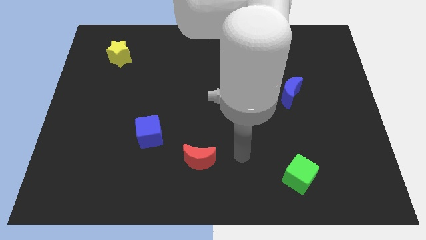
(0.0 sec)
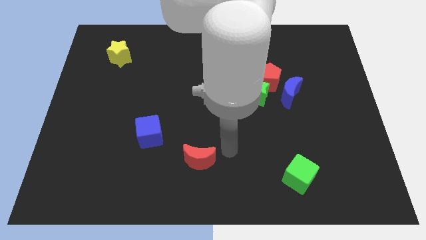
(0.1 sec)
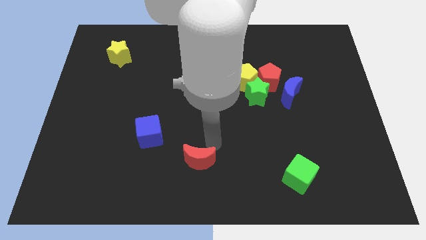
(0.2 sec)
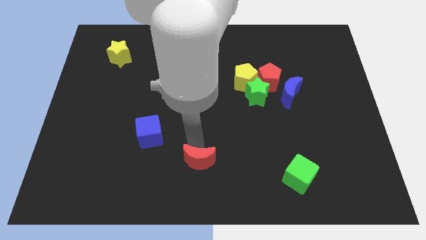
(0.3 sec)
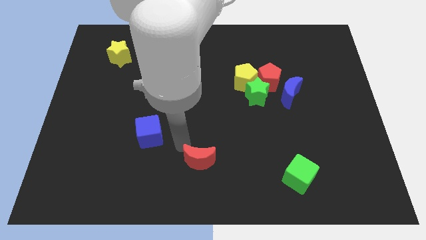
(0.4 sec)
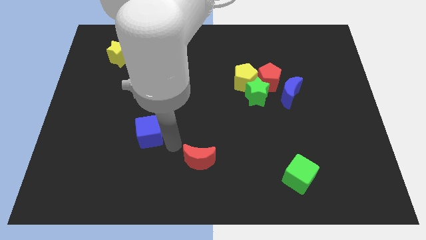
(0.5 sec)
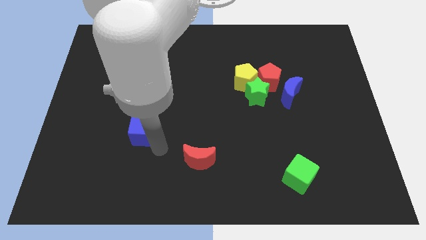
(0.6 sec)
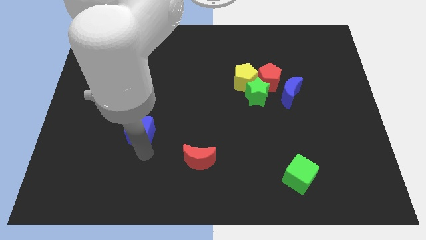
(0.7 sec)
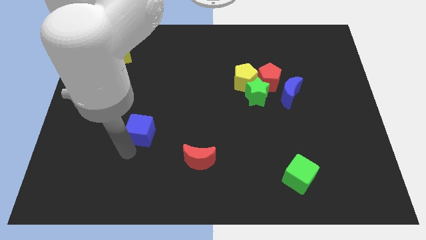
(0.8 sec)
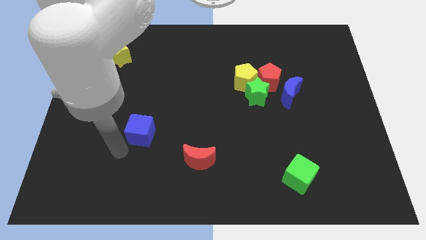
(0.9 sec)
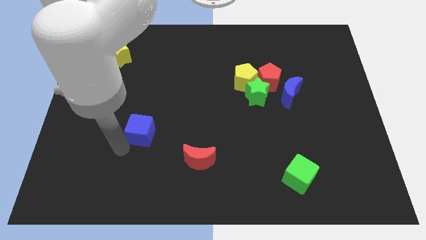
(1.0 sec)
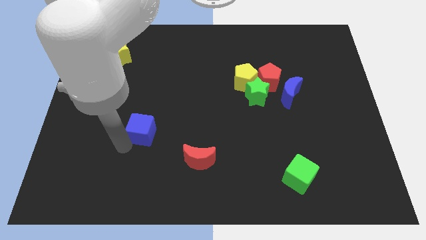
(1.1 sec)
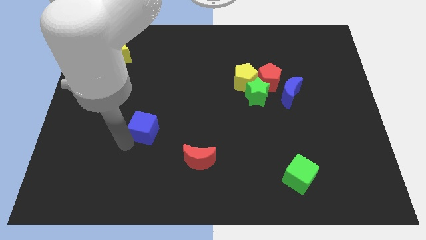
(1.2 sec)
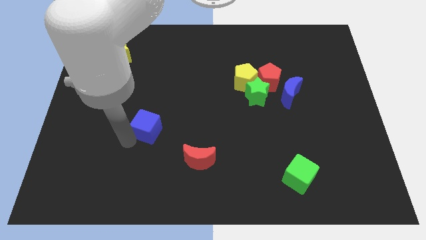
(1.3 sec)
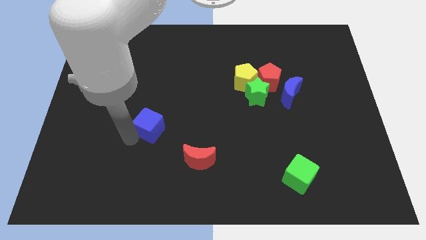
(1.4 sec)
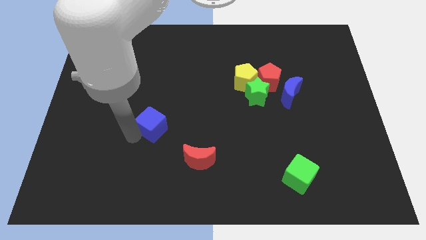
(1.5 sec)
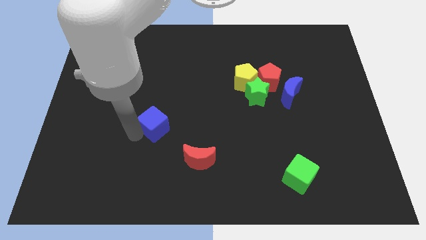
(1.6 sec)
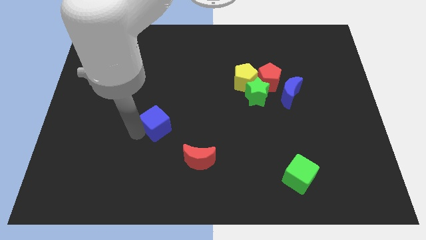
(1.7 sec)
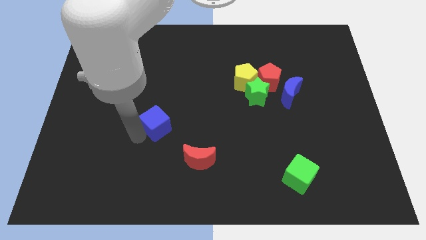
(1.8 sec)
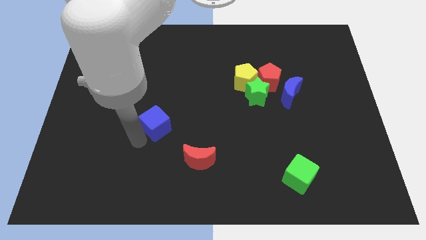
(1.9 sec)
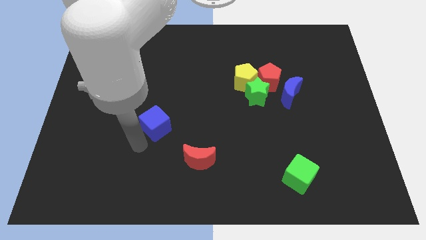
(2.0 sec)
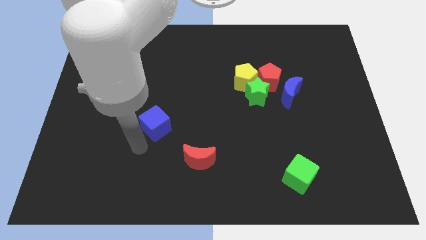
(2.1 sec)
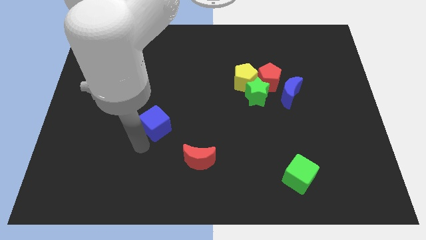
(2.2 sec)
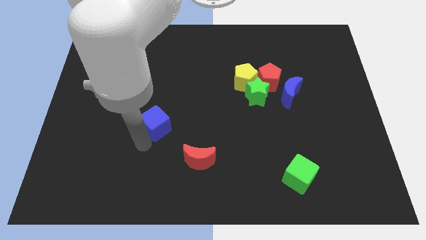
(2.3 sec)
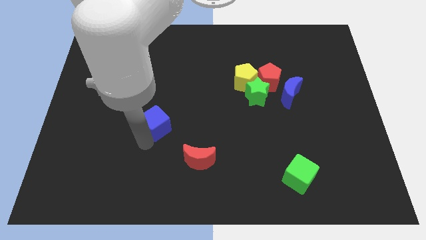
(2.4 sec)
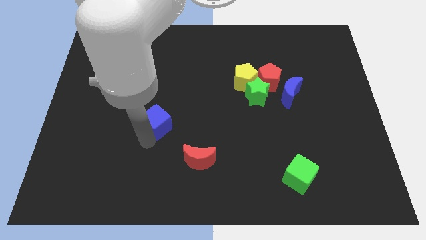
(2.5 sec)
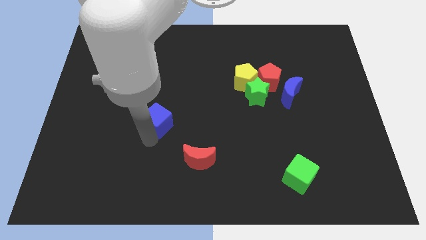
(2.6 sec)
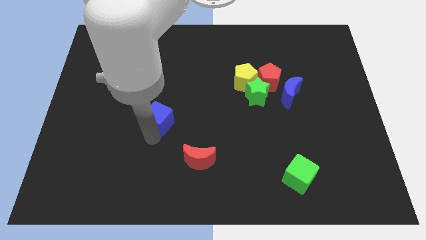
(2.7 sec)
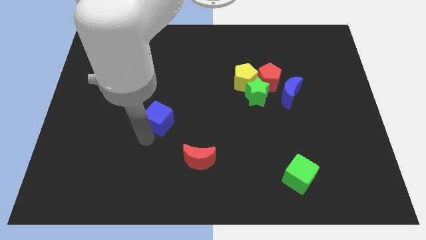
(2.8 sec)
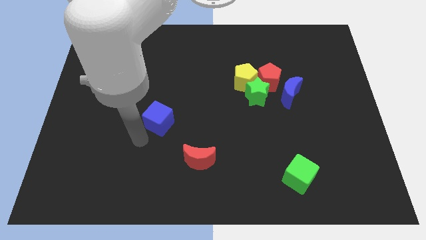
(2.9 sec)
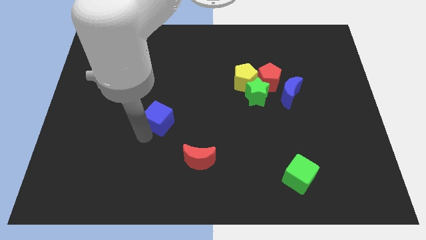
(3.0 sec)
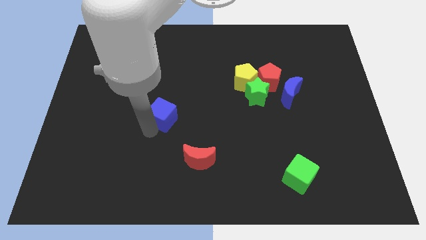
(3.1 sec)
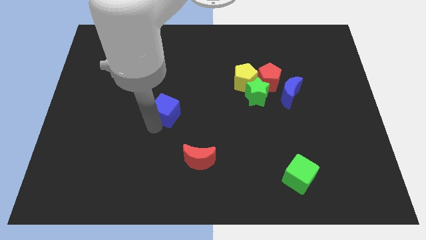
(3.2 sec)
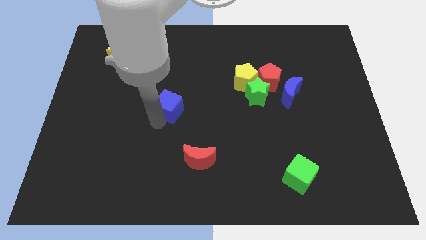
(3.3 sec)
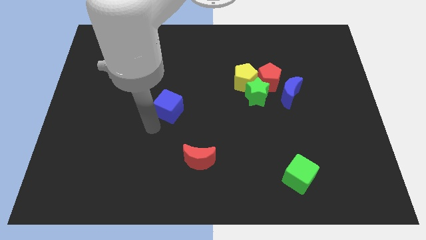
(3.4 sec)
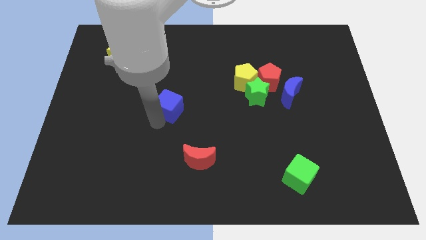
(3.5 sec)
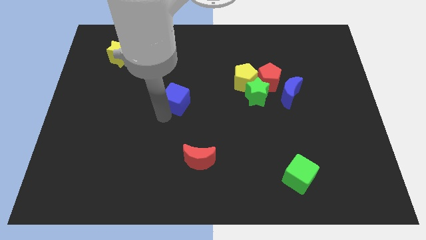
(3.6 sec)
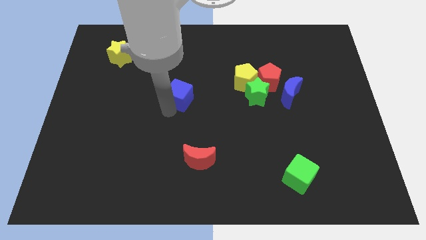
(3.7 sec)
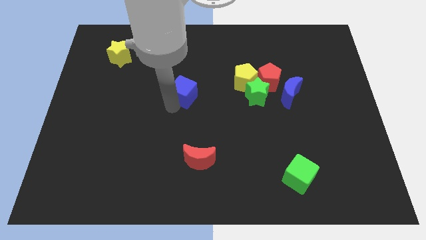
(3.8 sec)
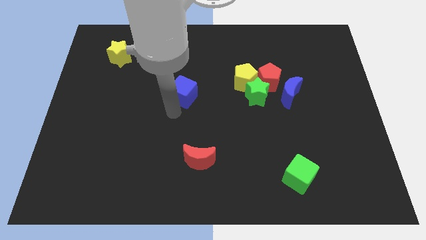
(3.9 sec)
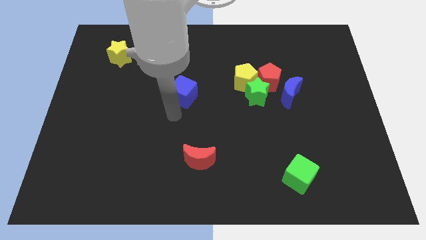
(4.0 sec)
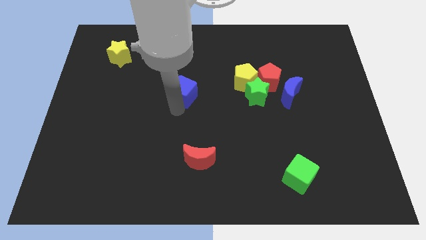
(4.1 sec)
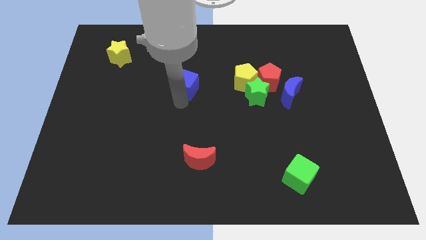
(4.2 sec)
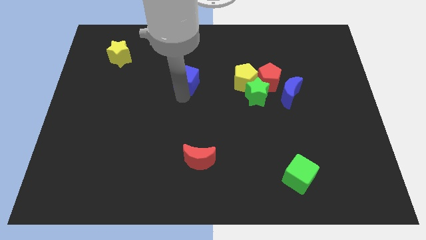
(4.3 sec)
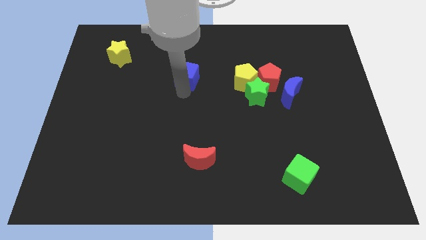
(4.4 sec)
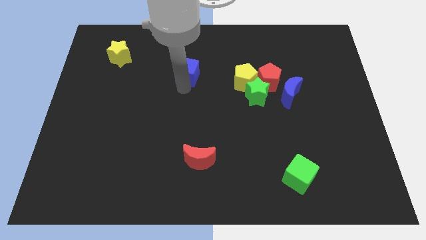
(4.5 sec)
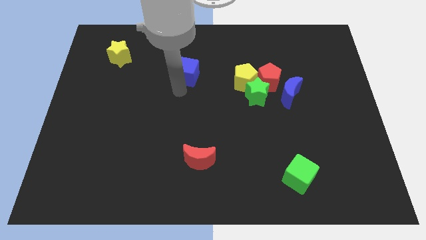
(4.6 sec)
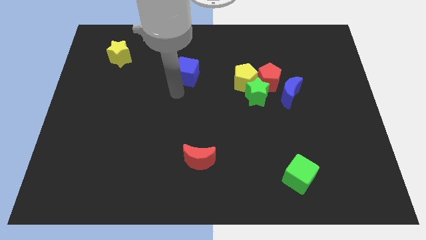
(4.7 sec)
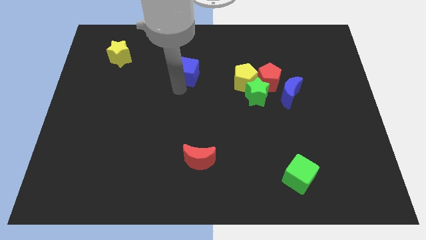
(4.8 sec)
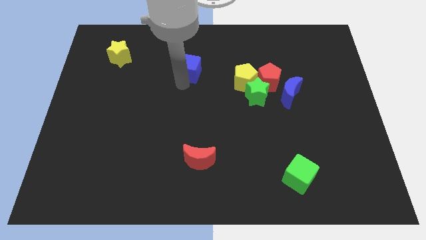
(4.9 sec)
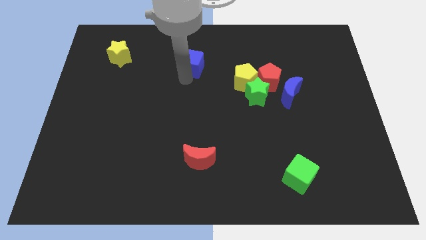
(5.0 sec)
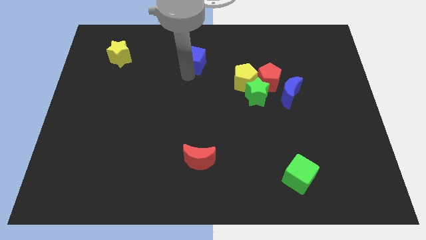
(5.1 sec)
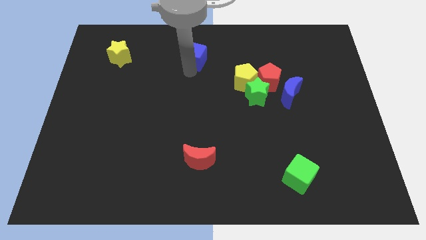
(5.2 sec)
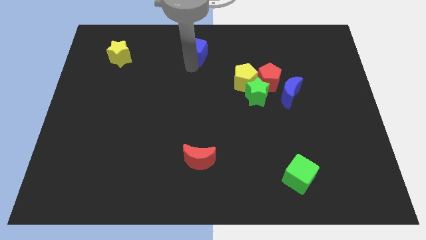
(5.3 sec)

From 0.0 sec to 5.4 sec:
put the blue cube to the towards your base

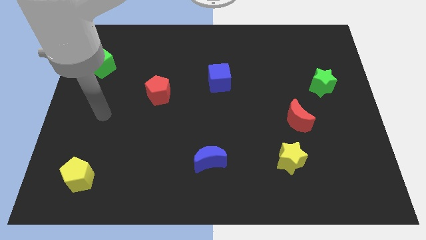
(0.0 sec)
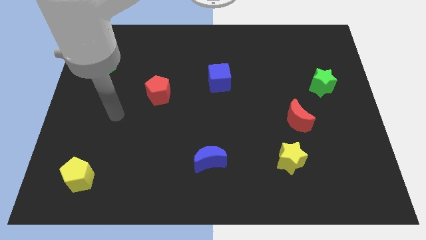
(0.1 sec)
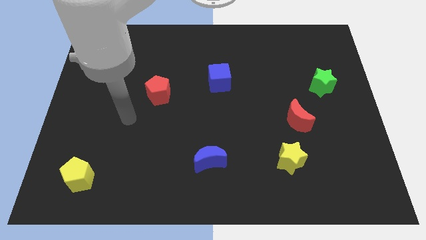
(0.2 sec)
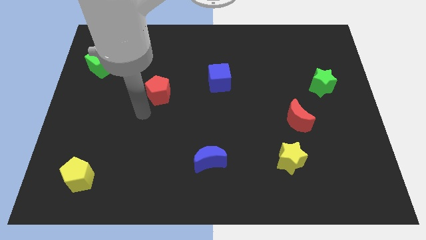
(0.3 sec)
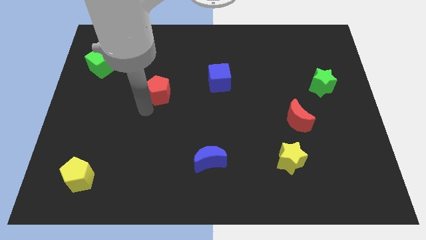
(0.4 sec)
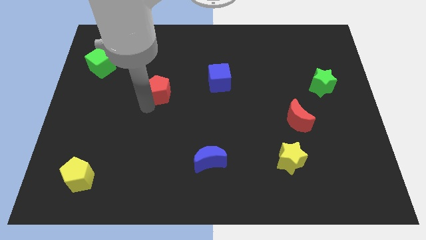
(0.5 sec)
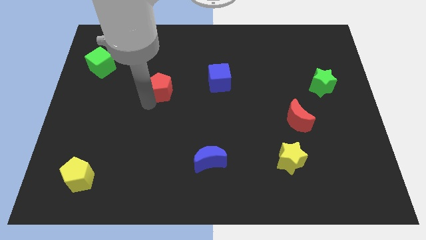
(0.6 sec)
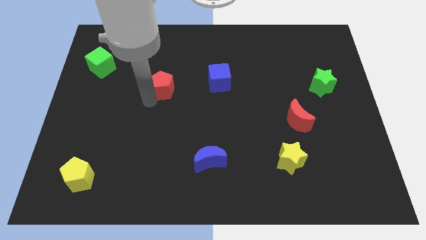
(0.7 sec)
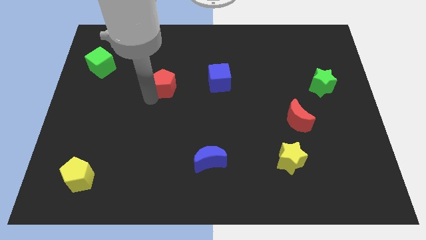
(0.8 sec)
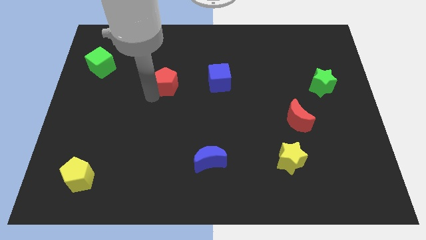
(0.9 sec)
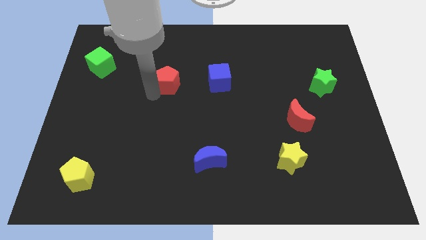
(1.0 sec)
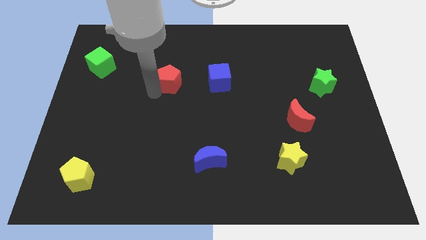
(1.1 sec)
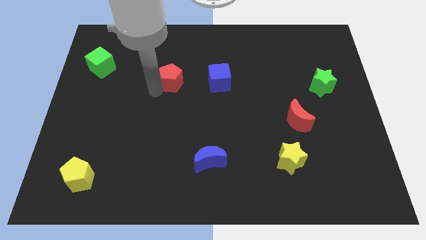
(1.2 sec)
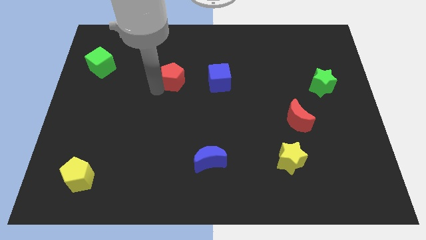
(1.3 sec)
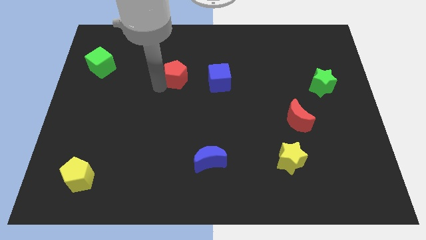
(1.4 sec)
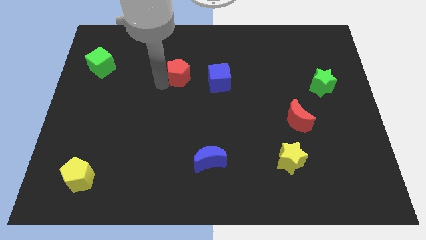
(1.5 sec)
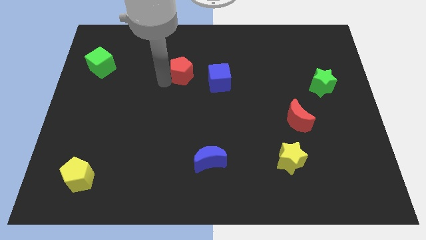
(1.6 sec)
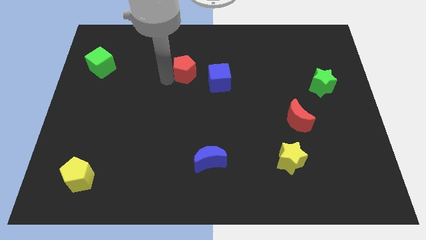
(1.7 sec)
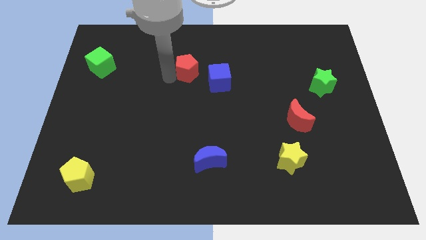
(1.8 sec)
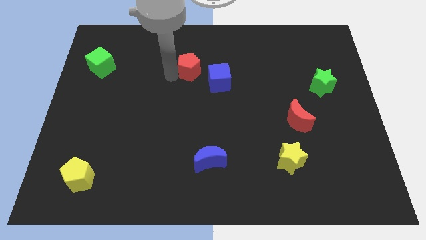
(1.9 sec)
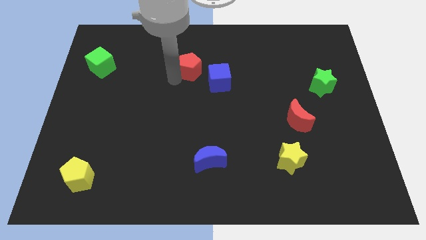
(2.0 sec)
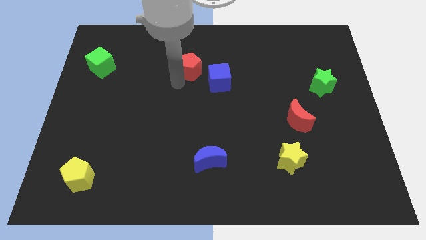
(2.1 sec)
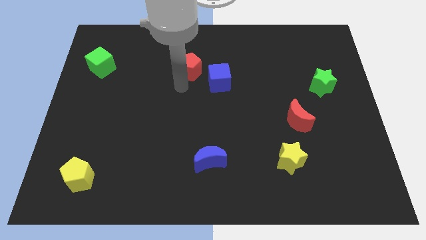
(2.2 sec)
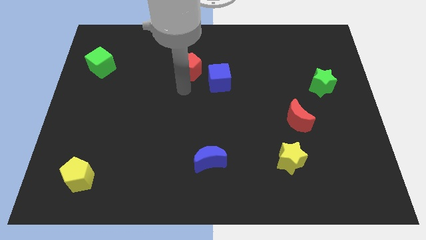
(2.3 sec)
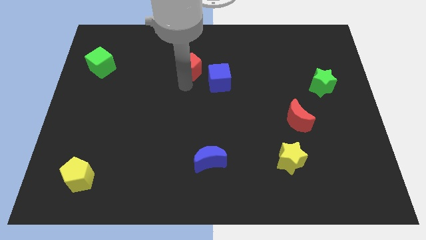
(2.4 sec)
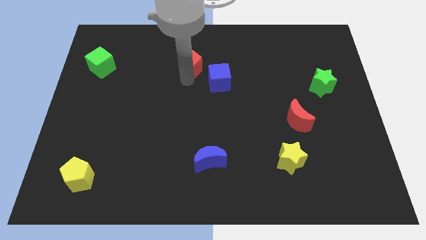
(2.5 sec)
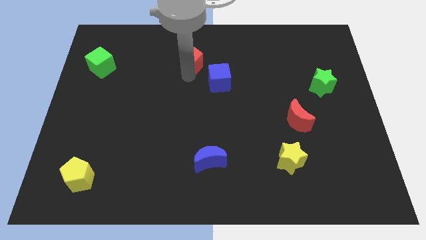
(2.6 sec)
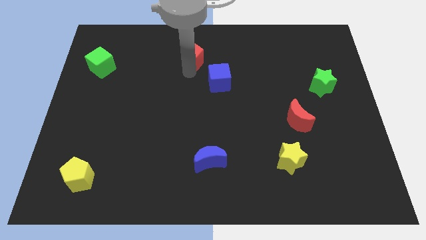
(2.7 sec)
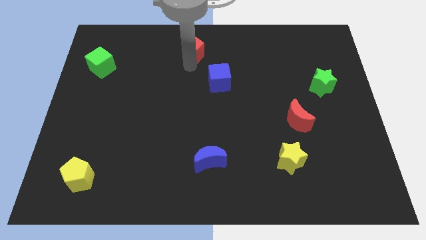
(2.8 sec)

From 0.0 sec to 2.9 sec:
put the red pentagon to the top side
